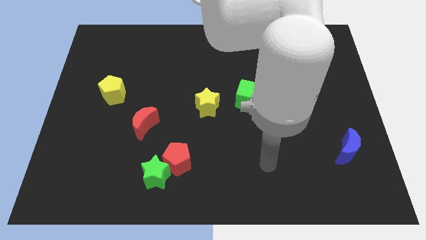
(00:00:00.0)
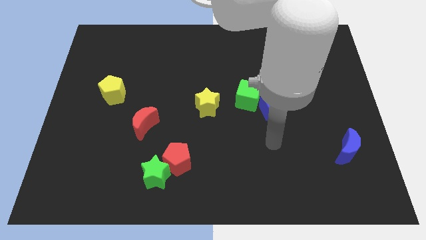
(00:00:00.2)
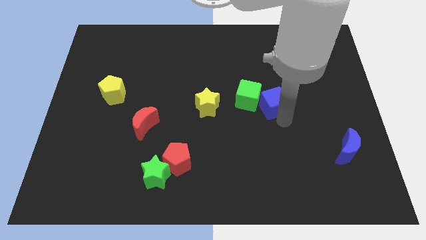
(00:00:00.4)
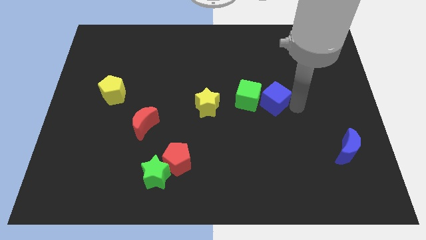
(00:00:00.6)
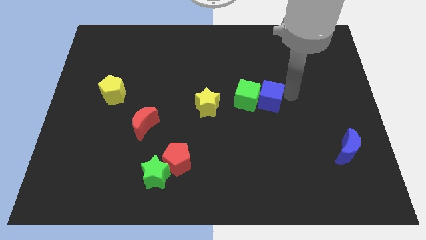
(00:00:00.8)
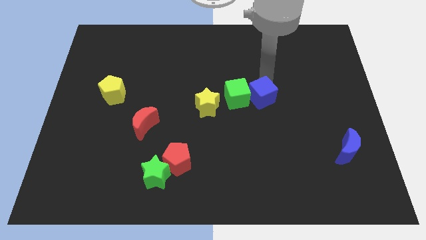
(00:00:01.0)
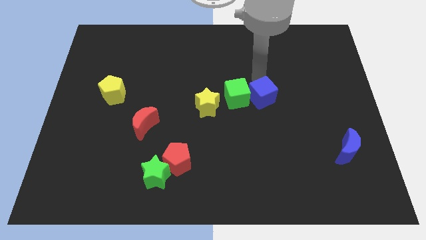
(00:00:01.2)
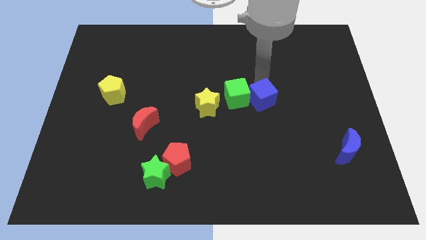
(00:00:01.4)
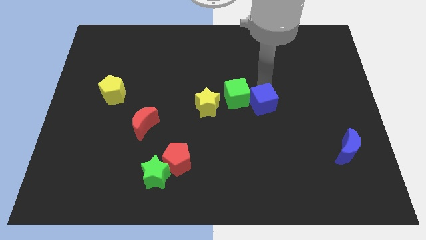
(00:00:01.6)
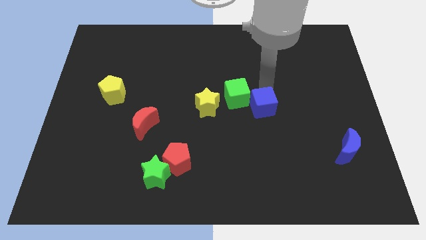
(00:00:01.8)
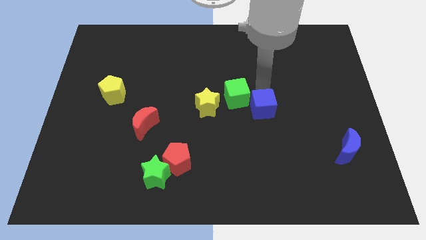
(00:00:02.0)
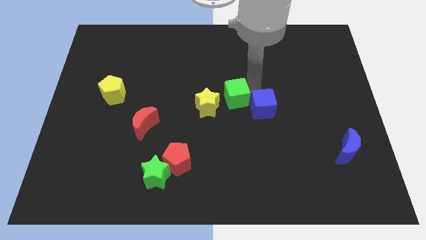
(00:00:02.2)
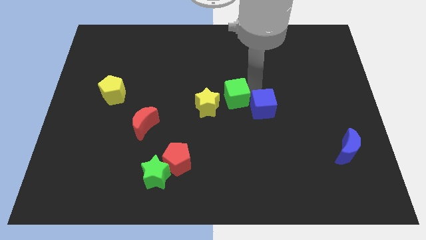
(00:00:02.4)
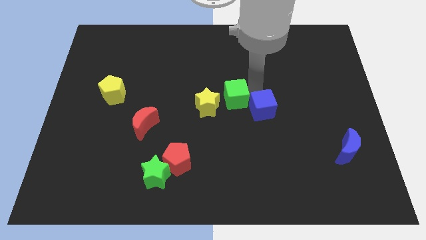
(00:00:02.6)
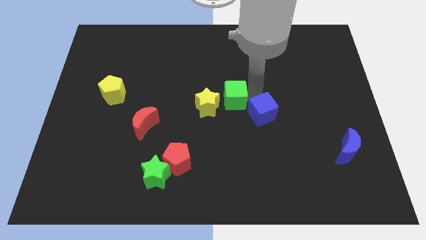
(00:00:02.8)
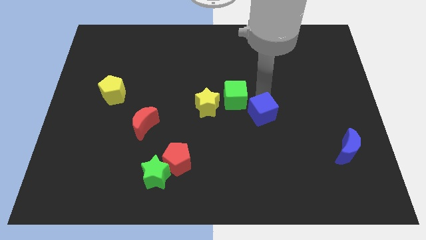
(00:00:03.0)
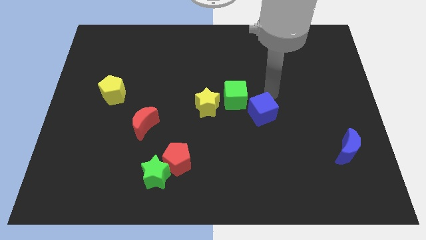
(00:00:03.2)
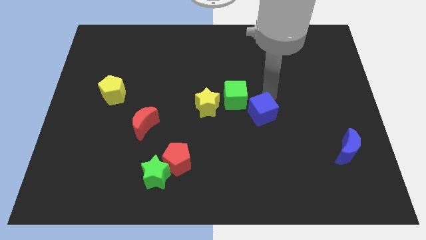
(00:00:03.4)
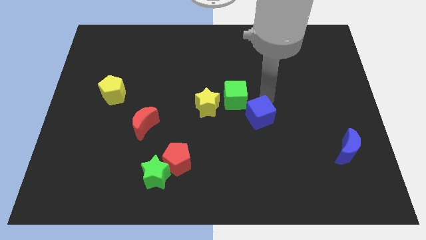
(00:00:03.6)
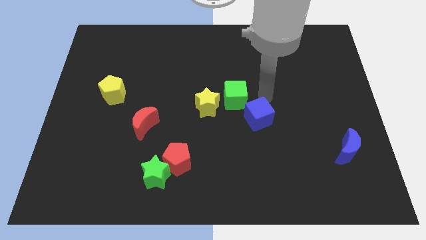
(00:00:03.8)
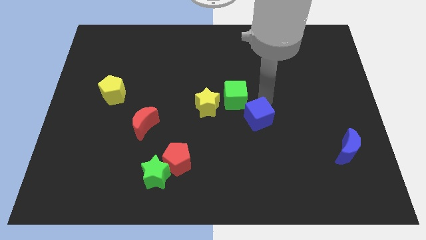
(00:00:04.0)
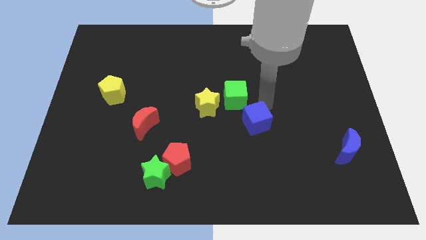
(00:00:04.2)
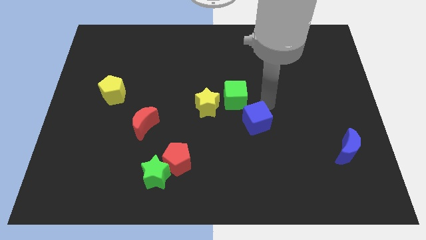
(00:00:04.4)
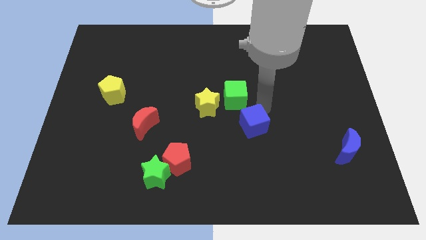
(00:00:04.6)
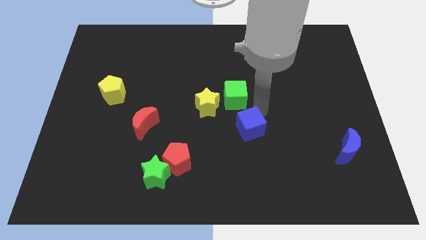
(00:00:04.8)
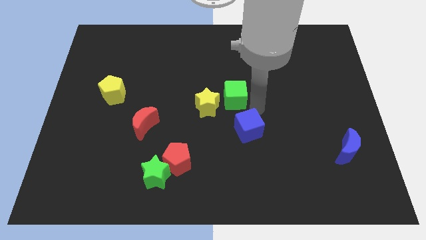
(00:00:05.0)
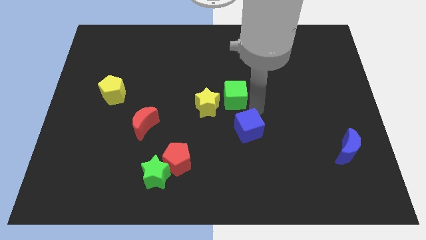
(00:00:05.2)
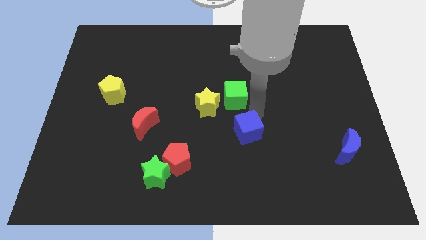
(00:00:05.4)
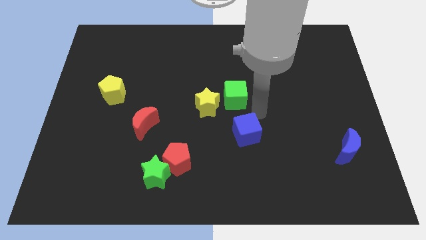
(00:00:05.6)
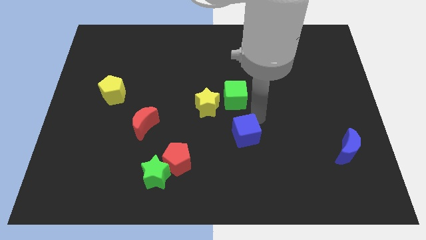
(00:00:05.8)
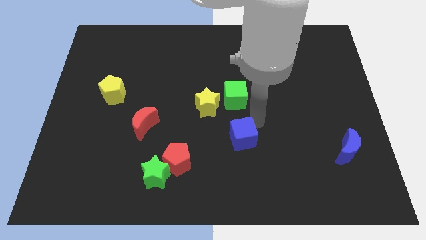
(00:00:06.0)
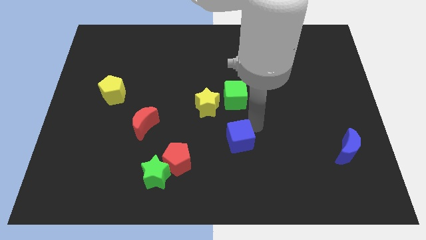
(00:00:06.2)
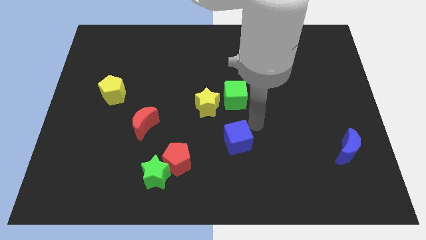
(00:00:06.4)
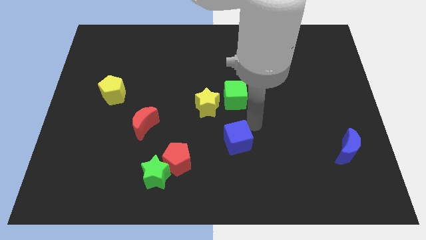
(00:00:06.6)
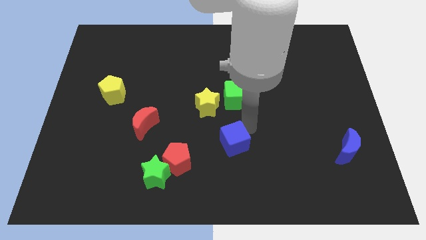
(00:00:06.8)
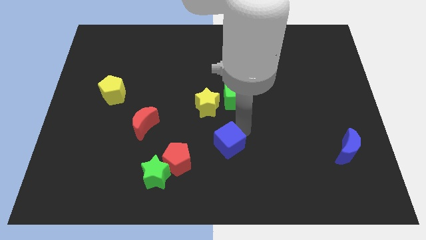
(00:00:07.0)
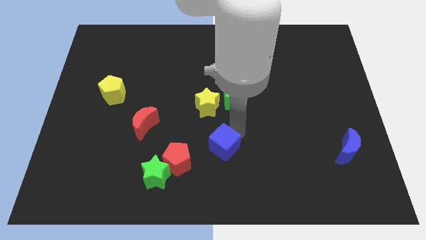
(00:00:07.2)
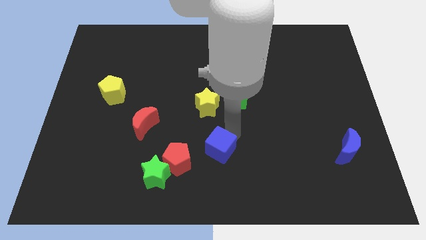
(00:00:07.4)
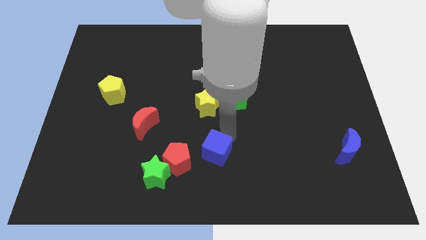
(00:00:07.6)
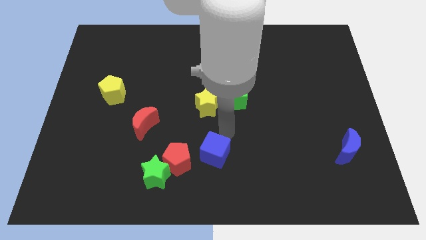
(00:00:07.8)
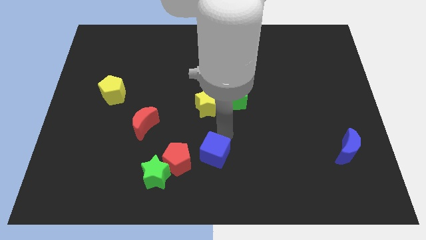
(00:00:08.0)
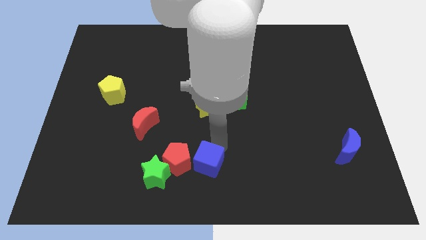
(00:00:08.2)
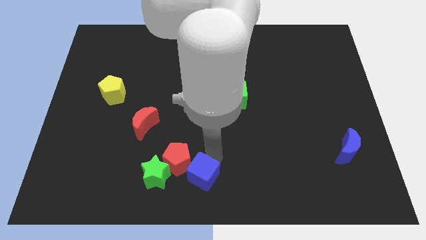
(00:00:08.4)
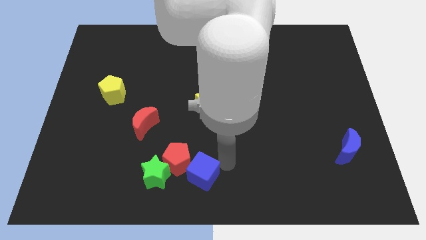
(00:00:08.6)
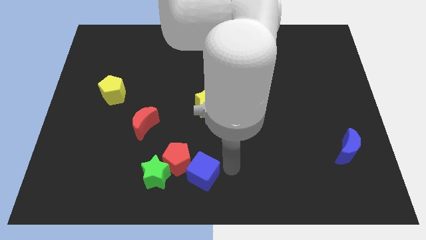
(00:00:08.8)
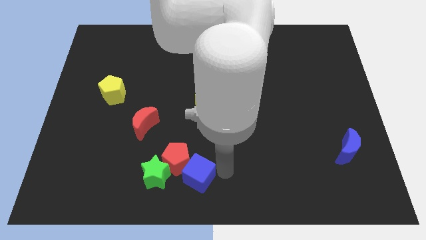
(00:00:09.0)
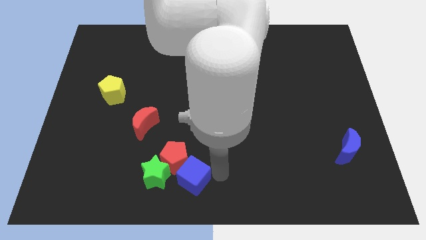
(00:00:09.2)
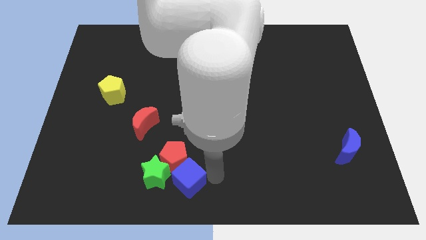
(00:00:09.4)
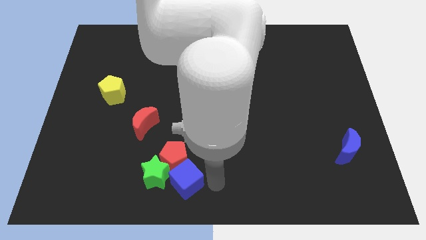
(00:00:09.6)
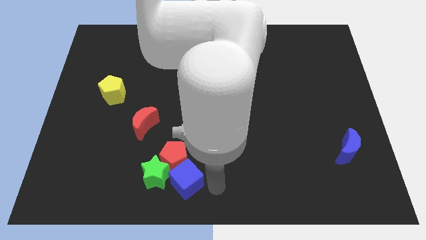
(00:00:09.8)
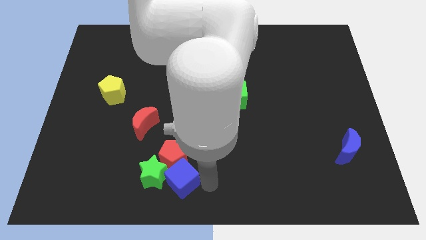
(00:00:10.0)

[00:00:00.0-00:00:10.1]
put the blue cube to the green star

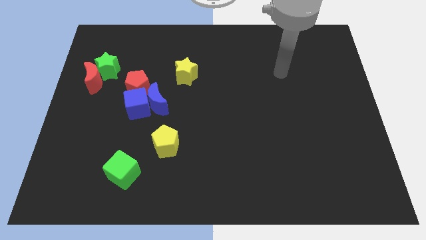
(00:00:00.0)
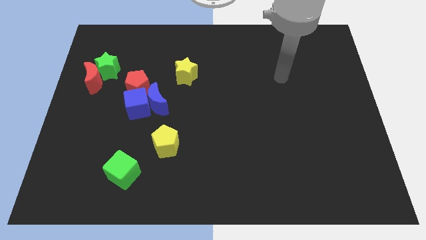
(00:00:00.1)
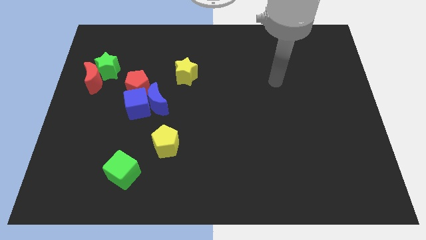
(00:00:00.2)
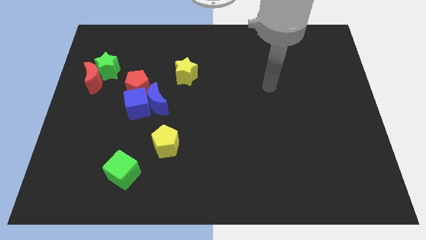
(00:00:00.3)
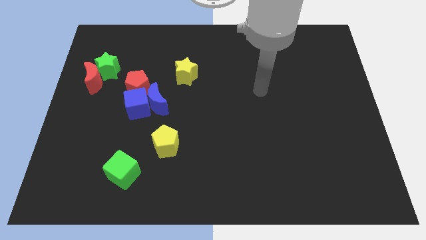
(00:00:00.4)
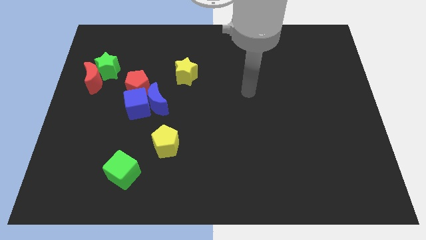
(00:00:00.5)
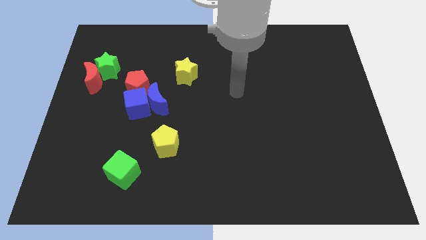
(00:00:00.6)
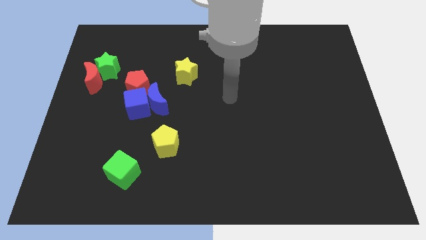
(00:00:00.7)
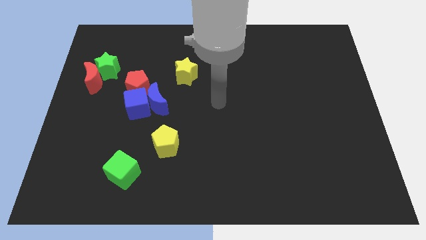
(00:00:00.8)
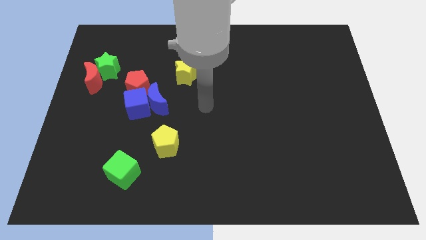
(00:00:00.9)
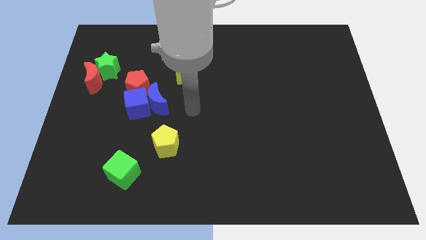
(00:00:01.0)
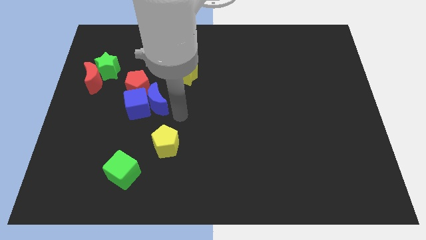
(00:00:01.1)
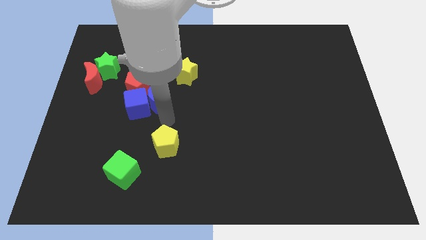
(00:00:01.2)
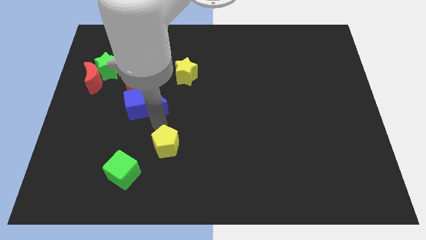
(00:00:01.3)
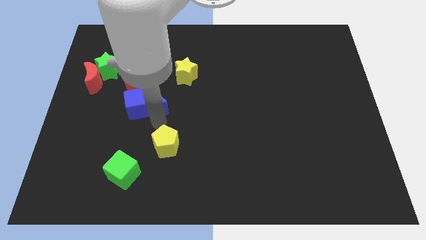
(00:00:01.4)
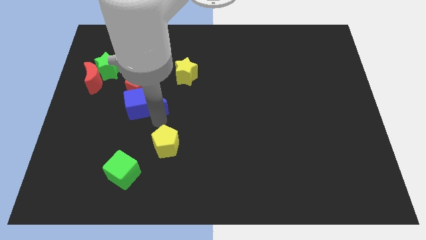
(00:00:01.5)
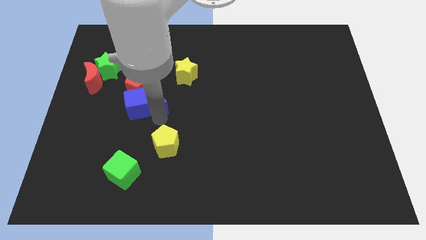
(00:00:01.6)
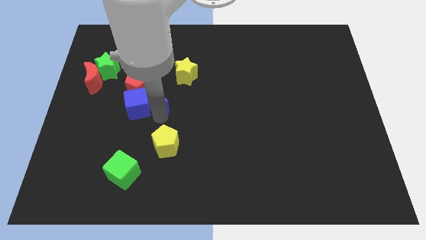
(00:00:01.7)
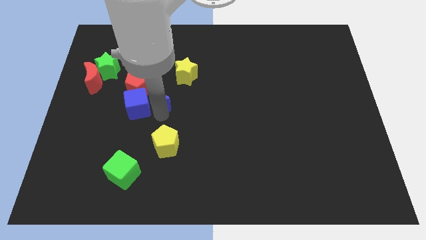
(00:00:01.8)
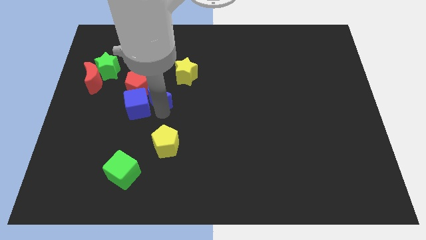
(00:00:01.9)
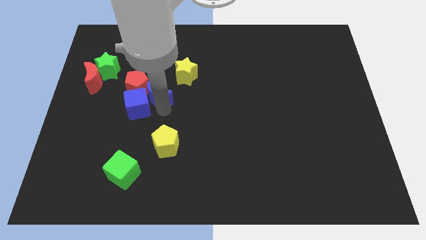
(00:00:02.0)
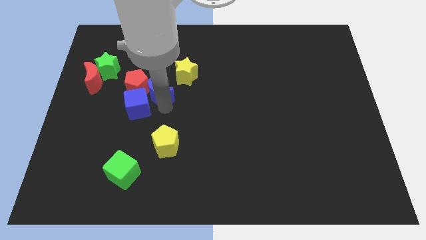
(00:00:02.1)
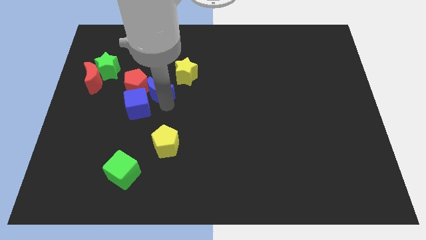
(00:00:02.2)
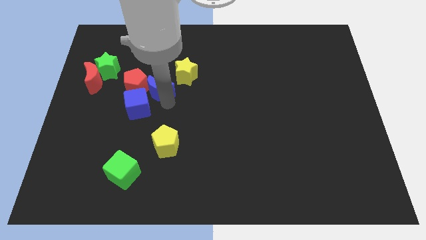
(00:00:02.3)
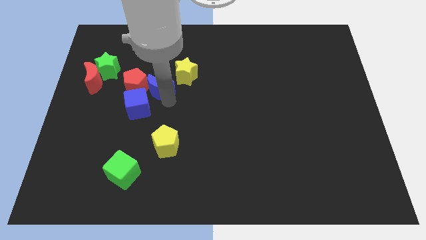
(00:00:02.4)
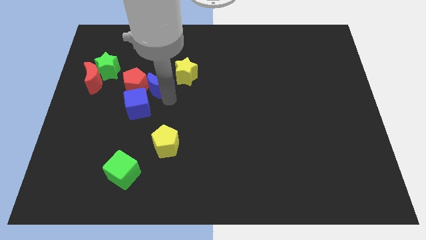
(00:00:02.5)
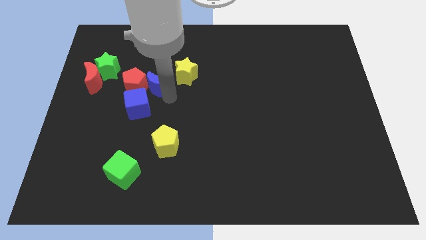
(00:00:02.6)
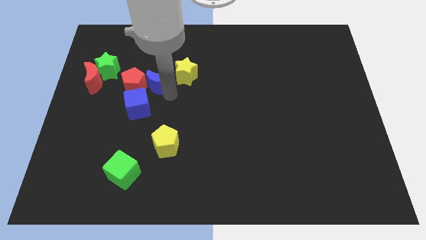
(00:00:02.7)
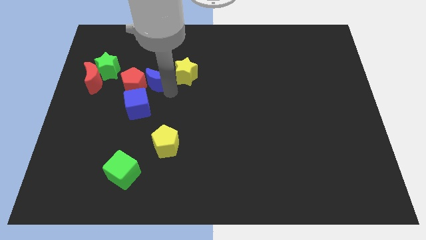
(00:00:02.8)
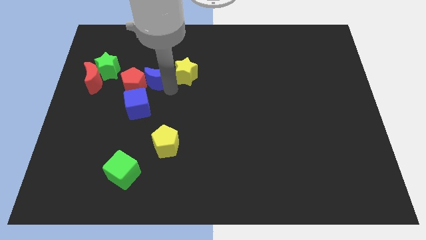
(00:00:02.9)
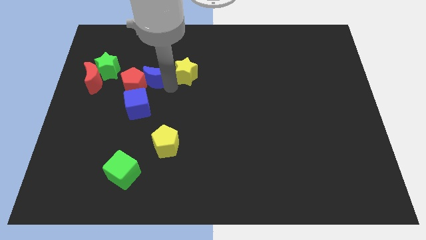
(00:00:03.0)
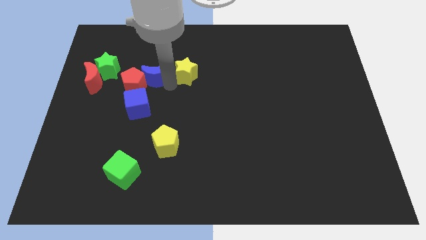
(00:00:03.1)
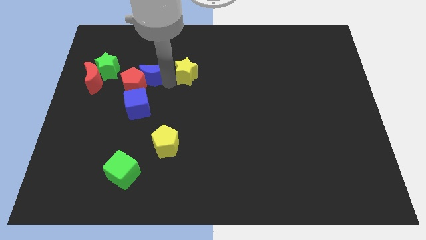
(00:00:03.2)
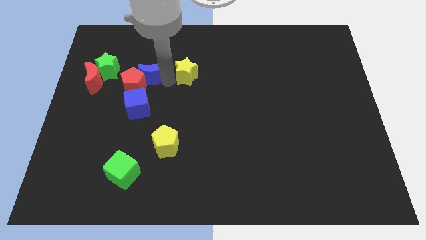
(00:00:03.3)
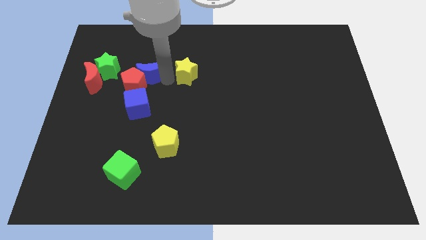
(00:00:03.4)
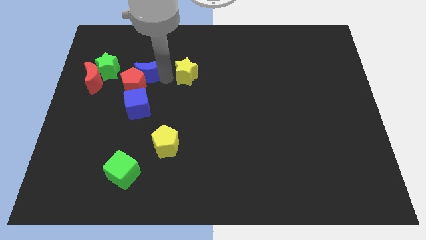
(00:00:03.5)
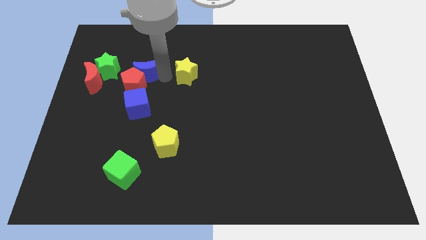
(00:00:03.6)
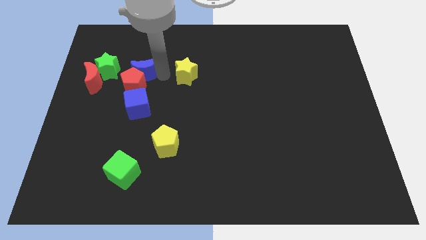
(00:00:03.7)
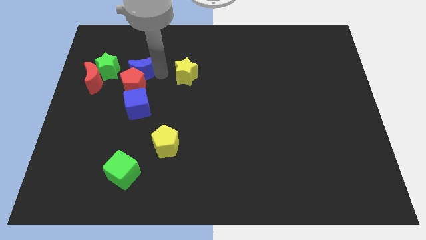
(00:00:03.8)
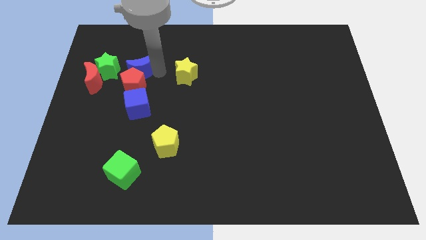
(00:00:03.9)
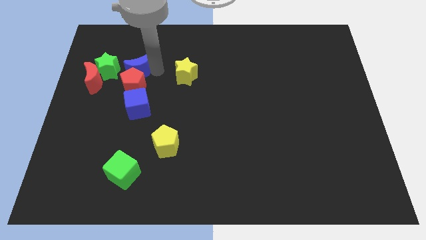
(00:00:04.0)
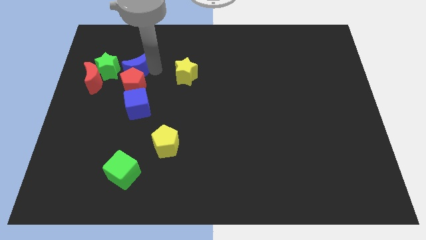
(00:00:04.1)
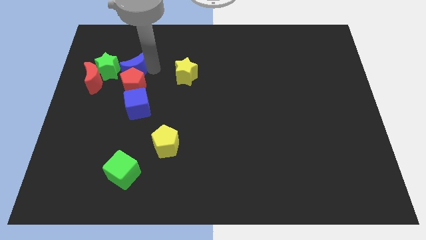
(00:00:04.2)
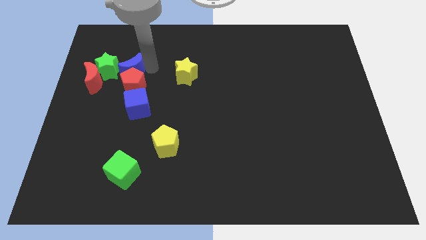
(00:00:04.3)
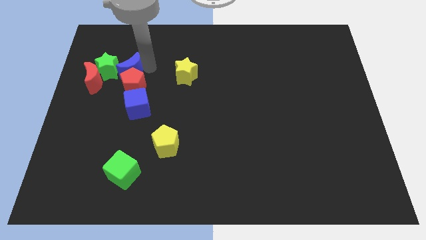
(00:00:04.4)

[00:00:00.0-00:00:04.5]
move the blue moon next to the green star
